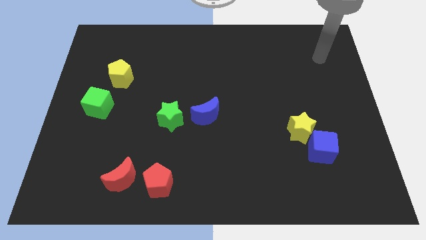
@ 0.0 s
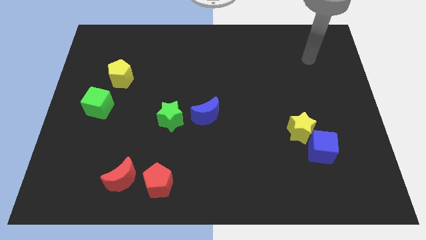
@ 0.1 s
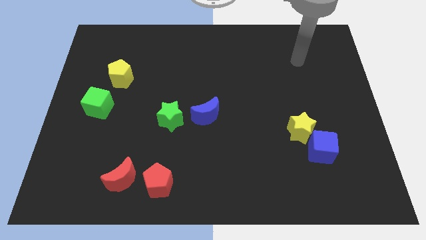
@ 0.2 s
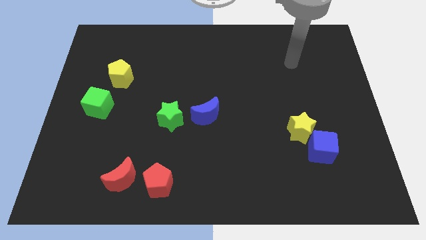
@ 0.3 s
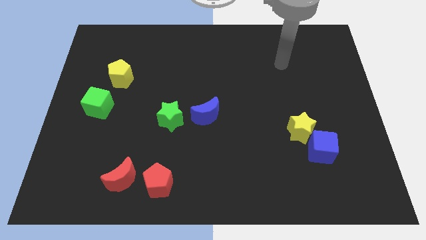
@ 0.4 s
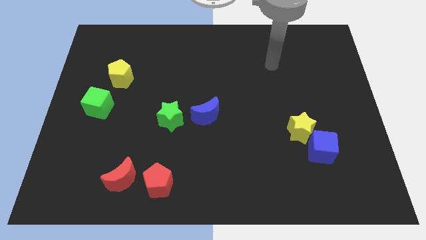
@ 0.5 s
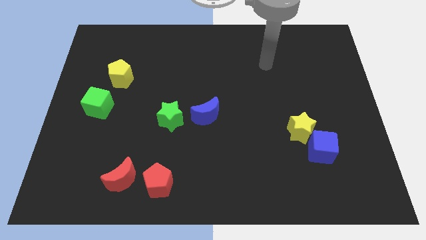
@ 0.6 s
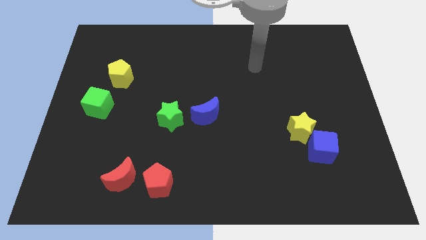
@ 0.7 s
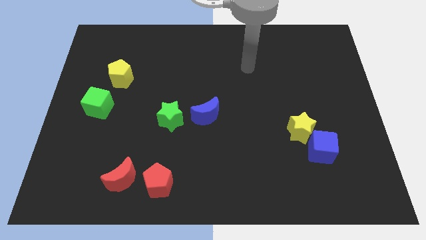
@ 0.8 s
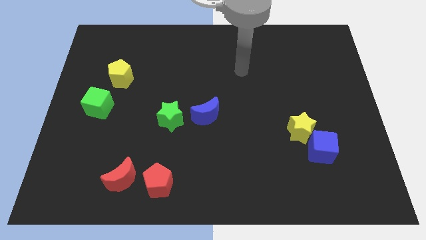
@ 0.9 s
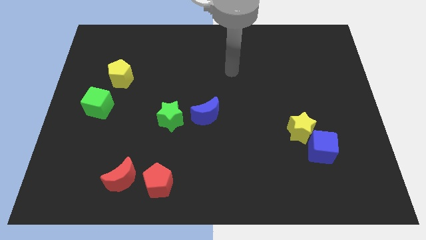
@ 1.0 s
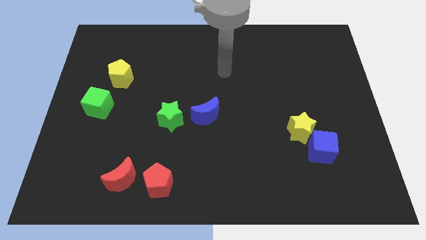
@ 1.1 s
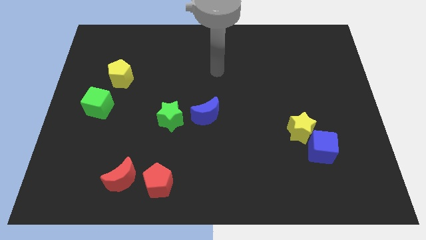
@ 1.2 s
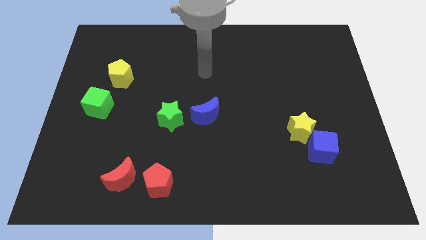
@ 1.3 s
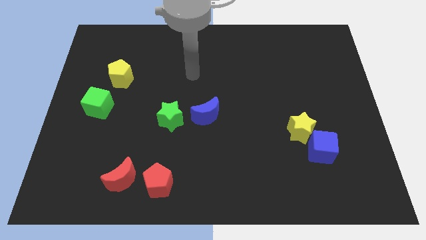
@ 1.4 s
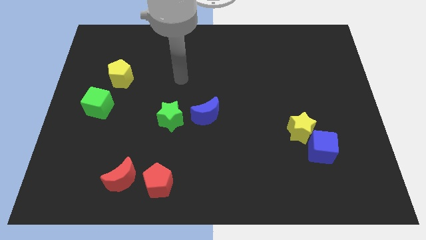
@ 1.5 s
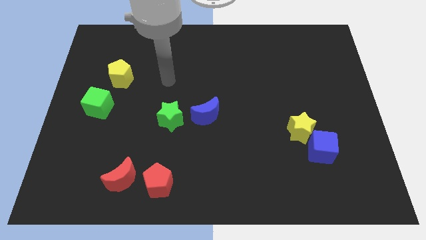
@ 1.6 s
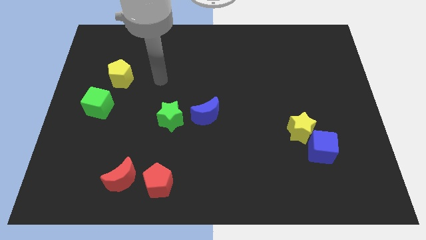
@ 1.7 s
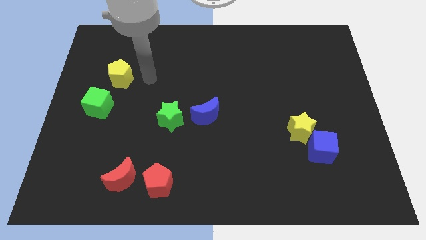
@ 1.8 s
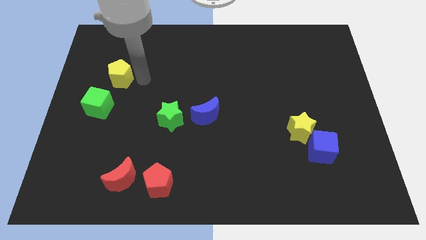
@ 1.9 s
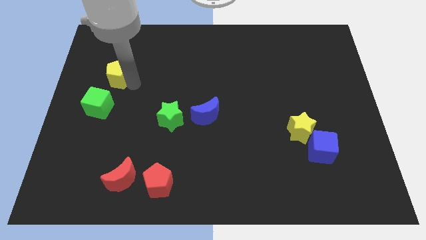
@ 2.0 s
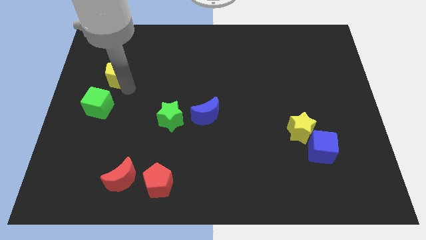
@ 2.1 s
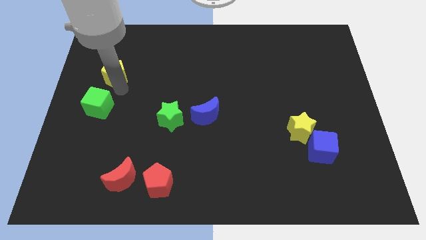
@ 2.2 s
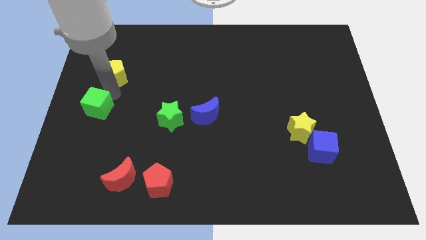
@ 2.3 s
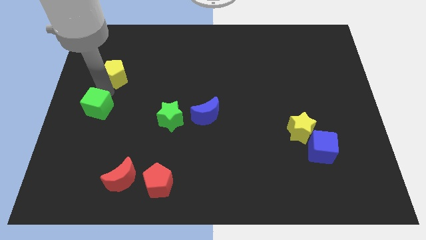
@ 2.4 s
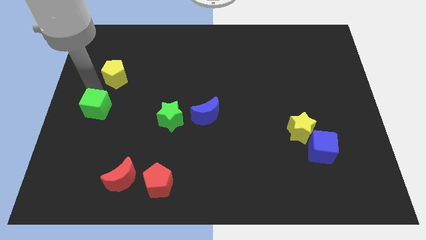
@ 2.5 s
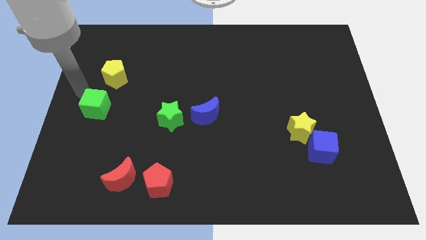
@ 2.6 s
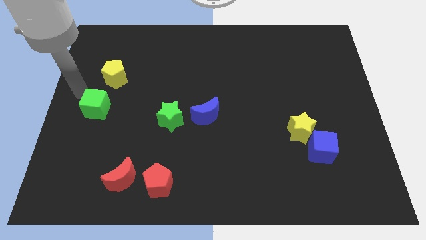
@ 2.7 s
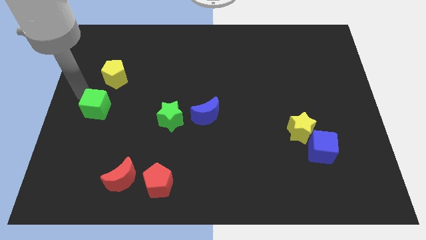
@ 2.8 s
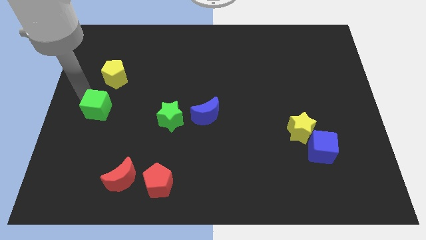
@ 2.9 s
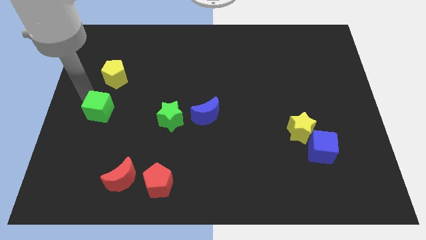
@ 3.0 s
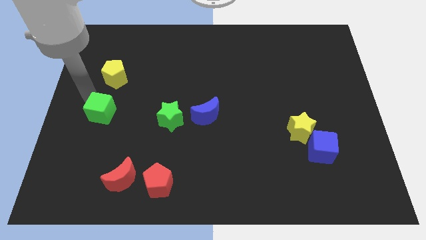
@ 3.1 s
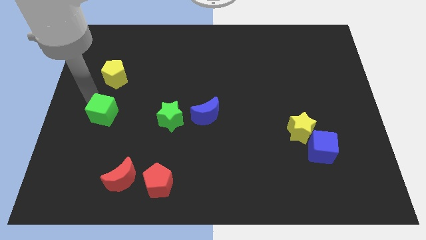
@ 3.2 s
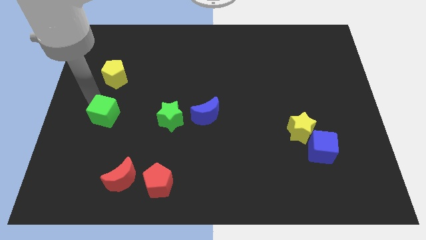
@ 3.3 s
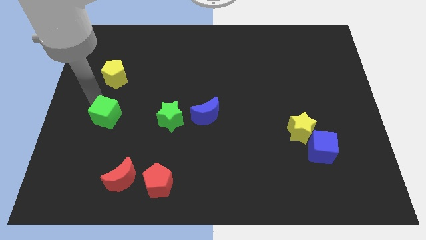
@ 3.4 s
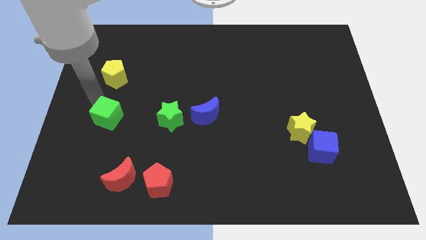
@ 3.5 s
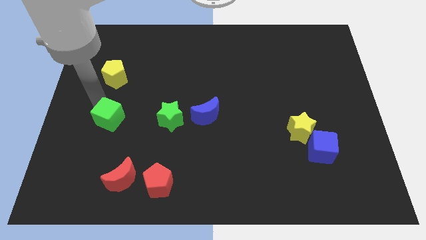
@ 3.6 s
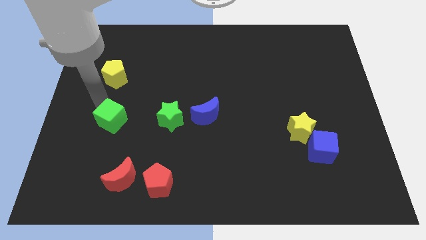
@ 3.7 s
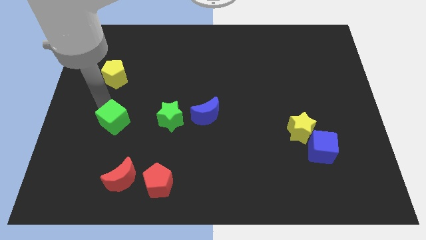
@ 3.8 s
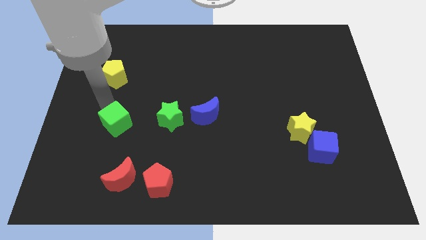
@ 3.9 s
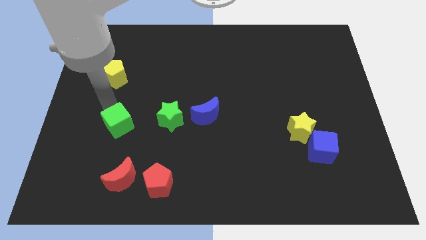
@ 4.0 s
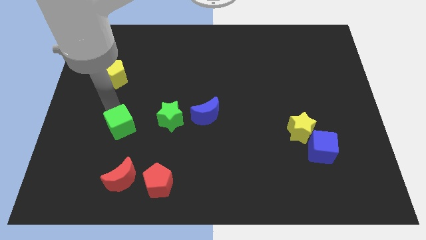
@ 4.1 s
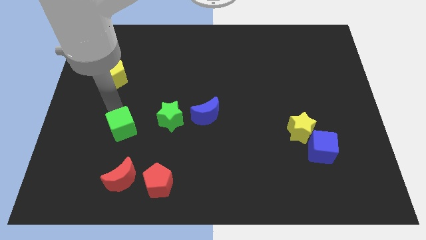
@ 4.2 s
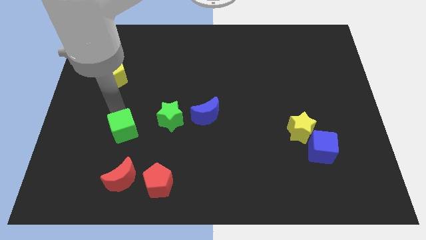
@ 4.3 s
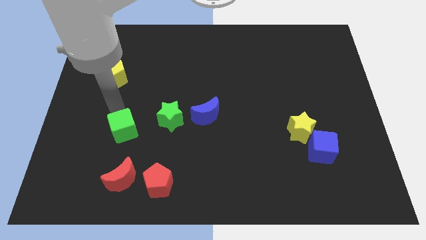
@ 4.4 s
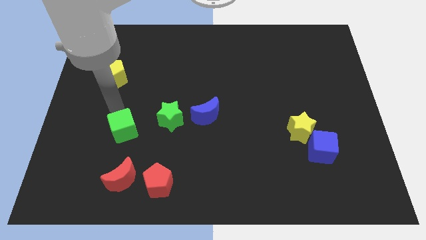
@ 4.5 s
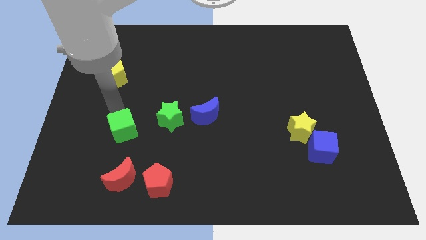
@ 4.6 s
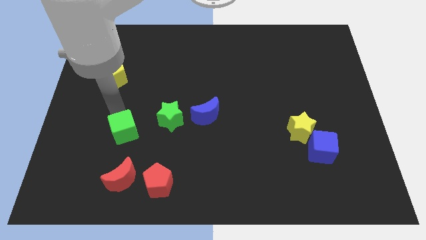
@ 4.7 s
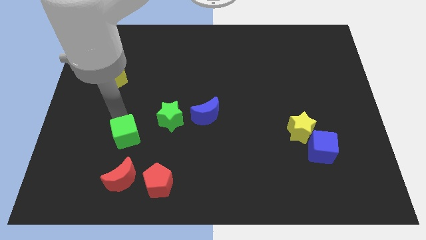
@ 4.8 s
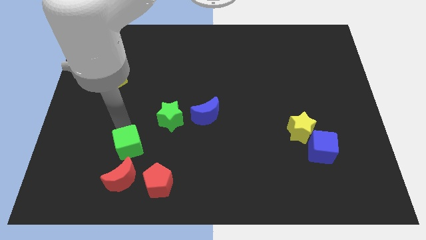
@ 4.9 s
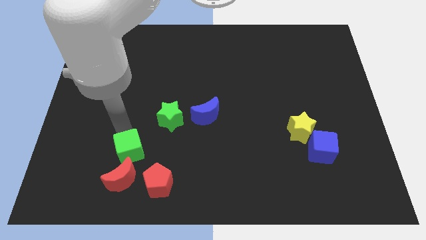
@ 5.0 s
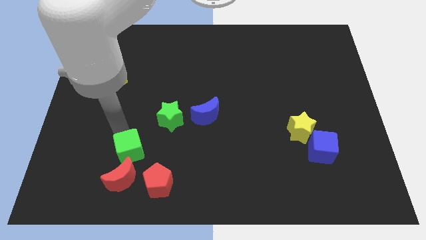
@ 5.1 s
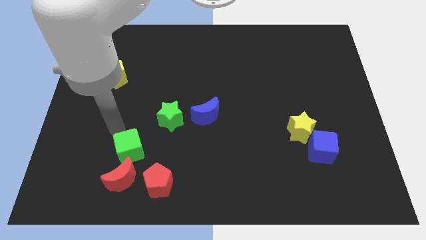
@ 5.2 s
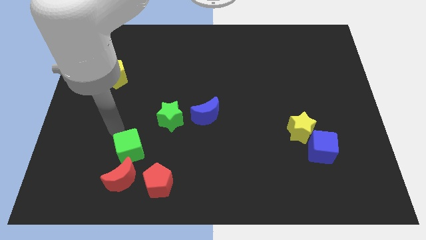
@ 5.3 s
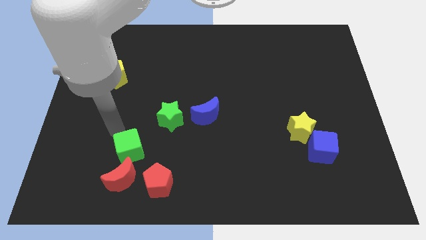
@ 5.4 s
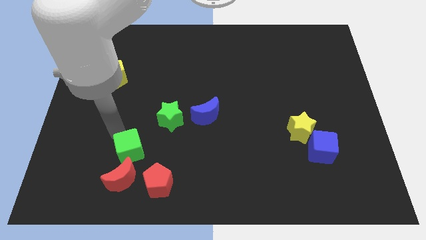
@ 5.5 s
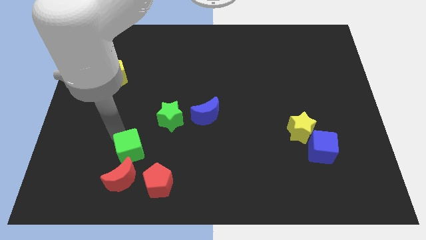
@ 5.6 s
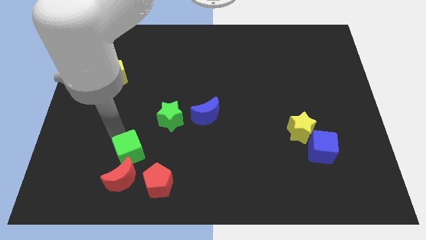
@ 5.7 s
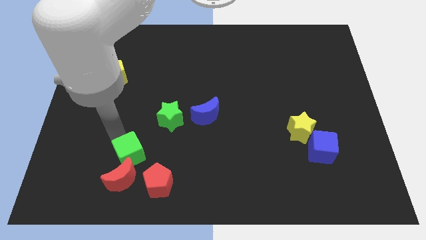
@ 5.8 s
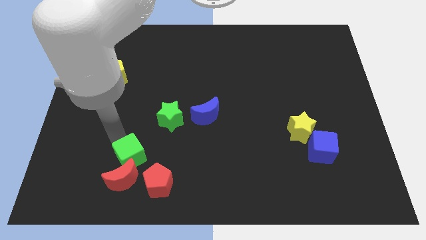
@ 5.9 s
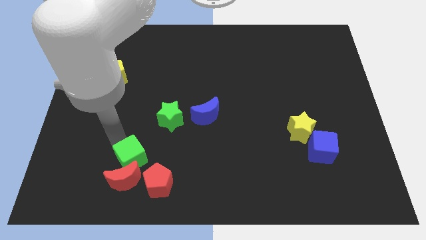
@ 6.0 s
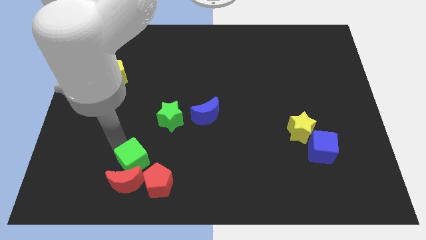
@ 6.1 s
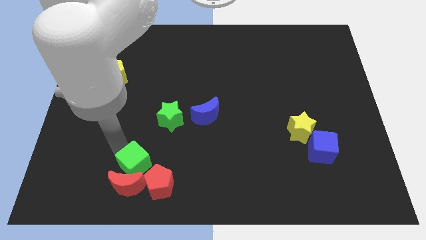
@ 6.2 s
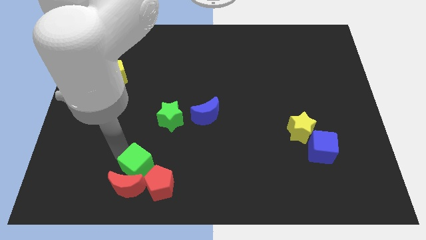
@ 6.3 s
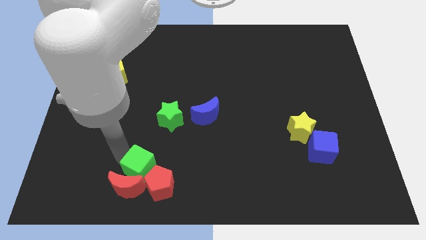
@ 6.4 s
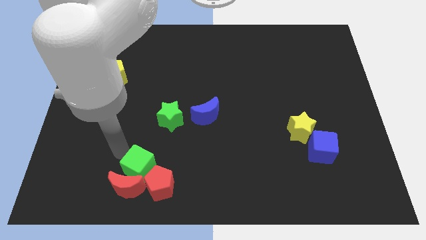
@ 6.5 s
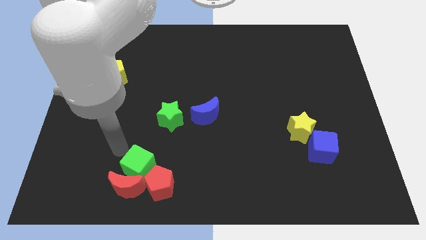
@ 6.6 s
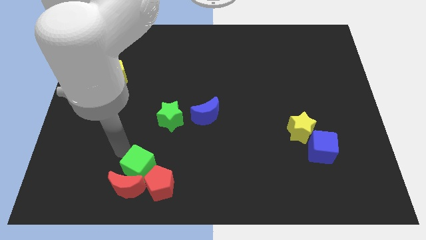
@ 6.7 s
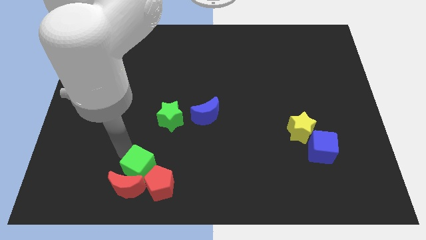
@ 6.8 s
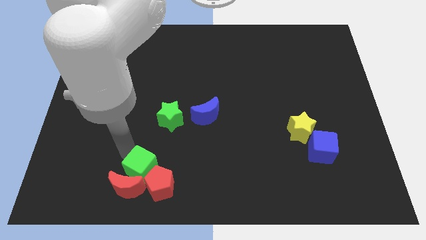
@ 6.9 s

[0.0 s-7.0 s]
move the green cube close to the red pentagon
